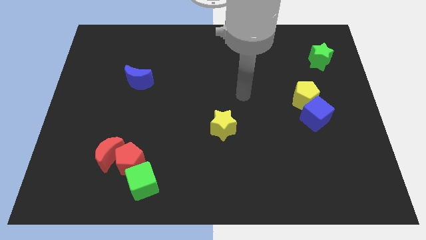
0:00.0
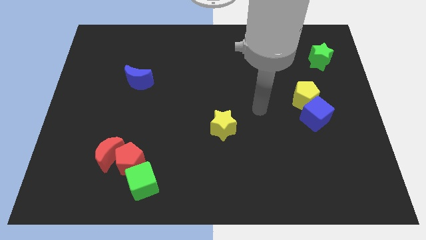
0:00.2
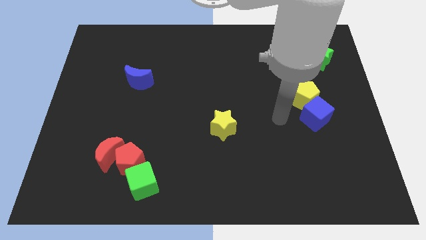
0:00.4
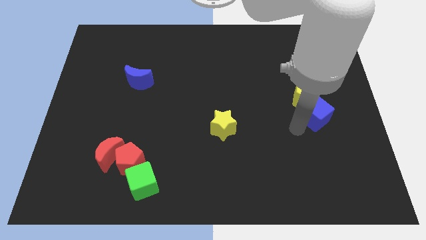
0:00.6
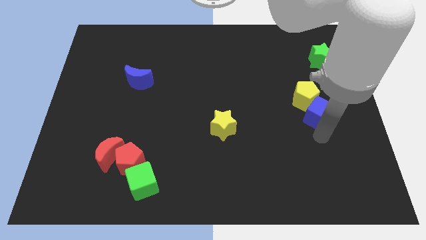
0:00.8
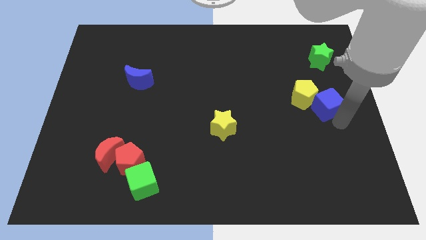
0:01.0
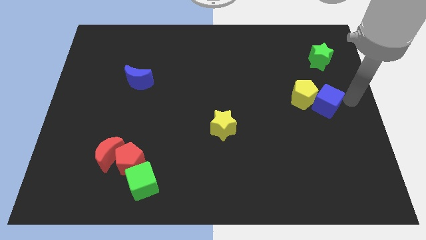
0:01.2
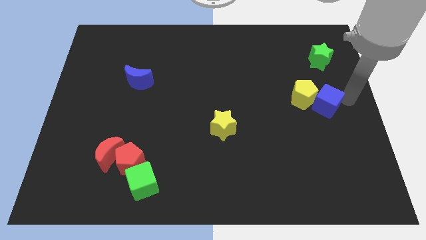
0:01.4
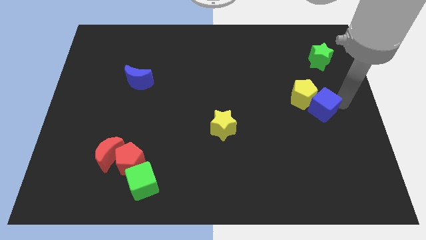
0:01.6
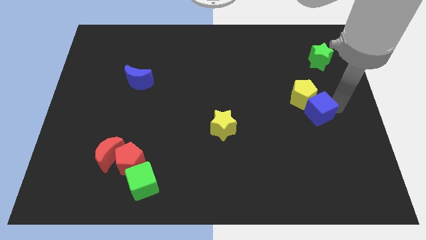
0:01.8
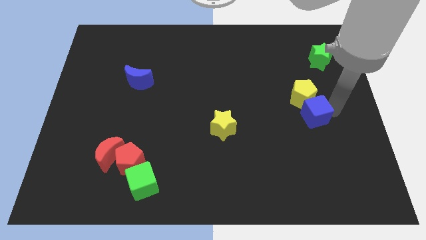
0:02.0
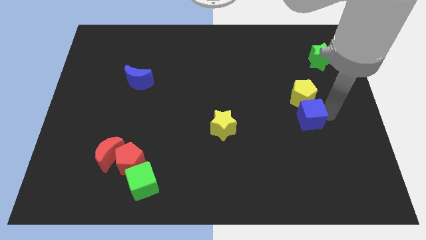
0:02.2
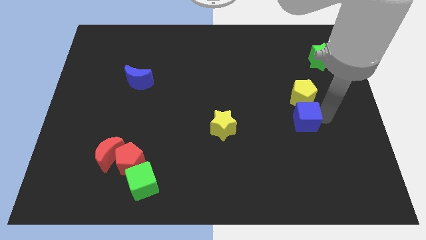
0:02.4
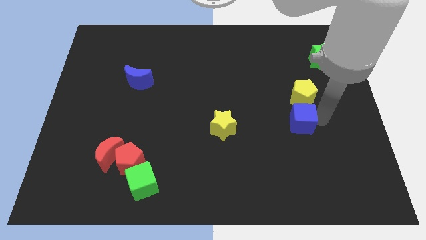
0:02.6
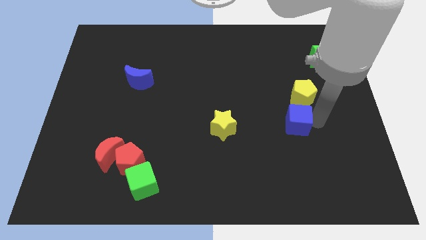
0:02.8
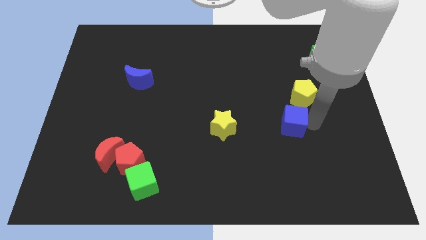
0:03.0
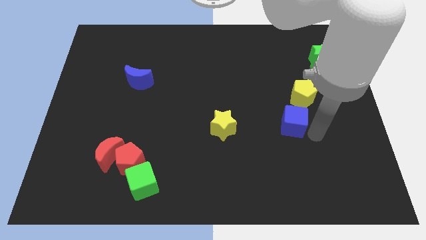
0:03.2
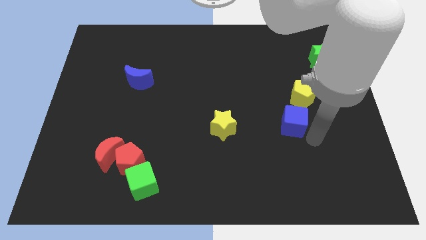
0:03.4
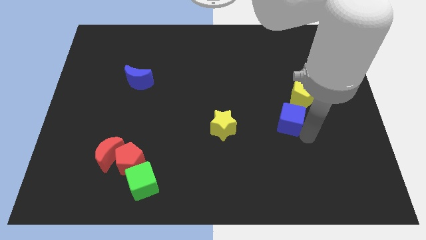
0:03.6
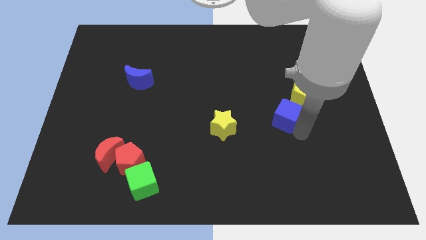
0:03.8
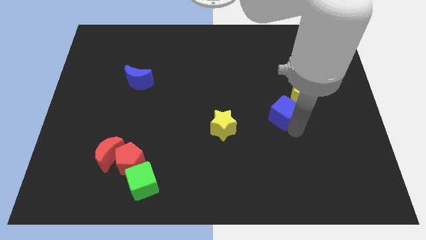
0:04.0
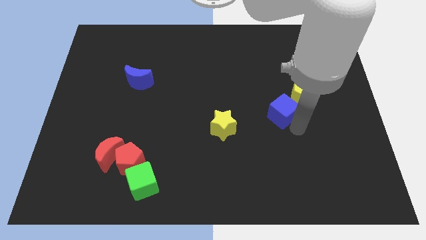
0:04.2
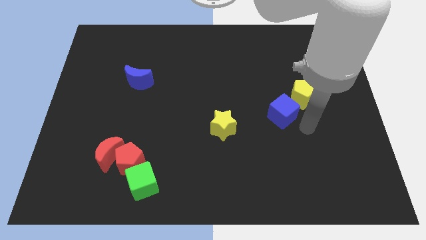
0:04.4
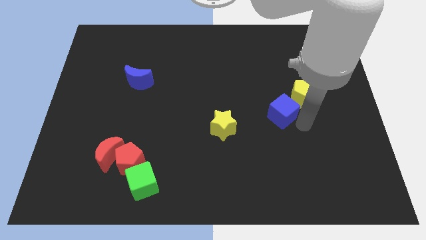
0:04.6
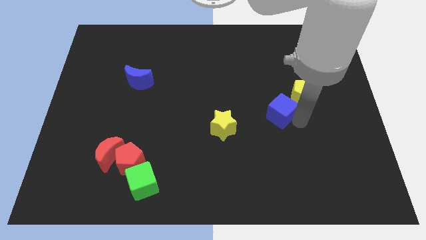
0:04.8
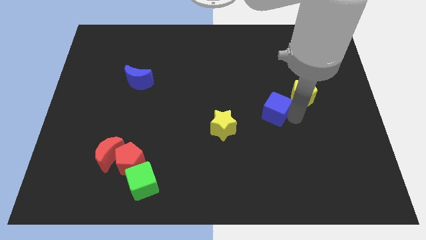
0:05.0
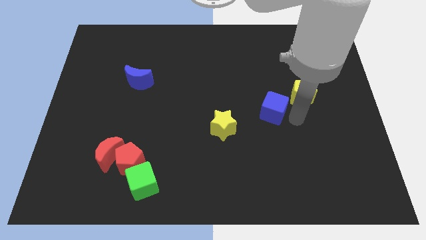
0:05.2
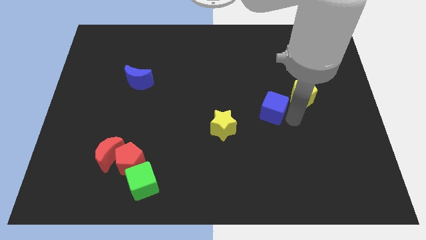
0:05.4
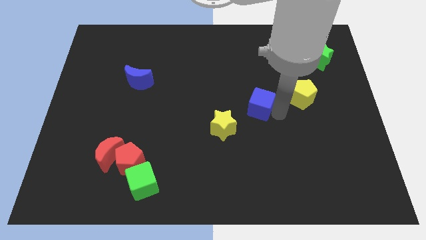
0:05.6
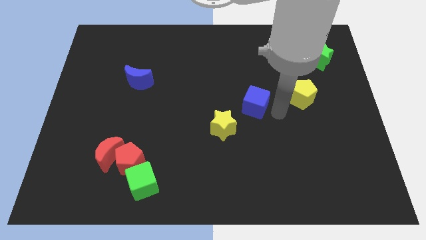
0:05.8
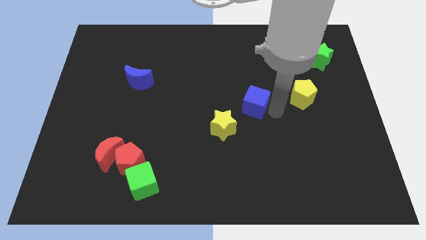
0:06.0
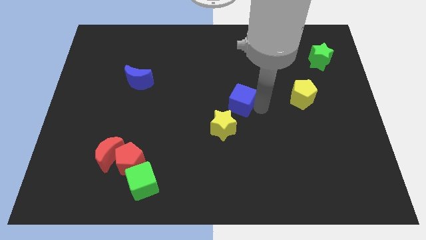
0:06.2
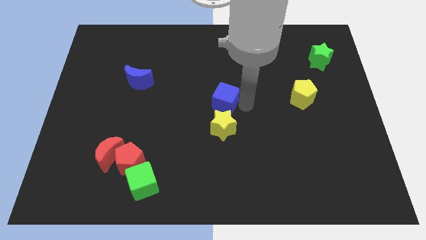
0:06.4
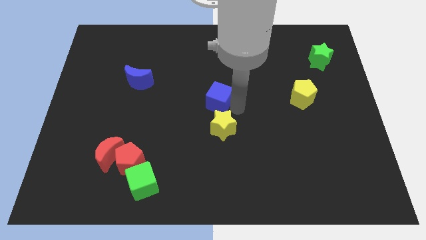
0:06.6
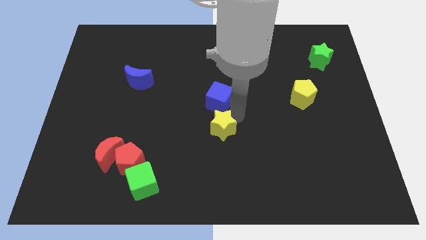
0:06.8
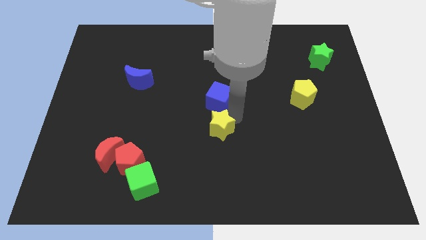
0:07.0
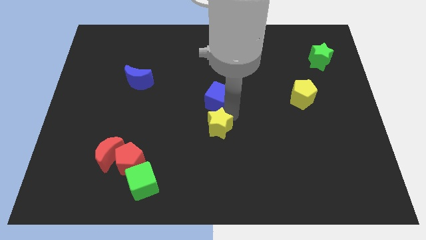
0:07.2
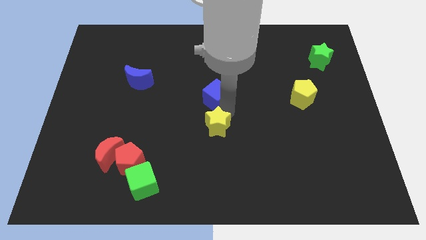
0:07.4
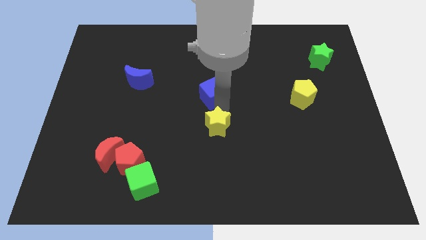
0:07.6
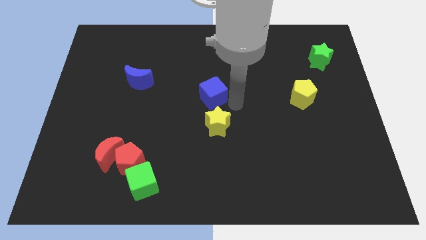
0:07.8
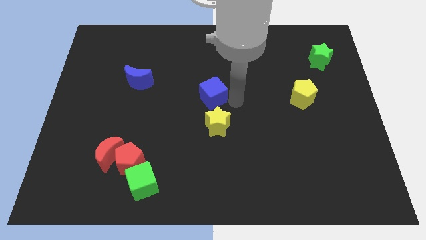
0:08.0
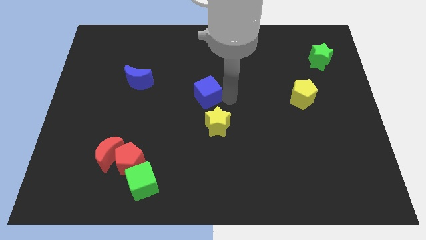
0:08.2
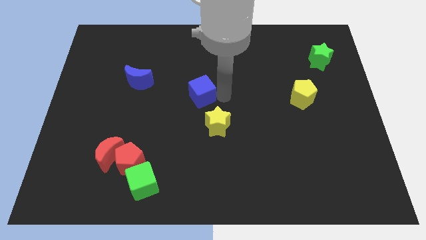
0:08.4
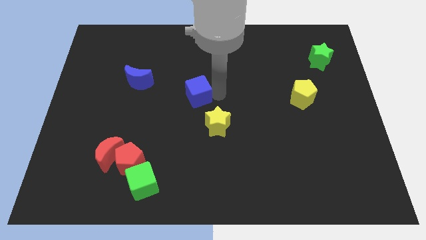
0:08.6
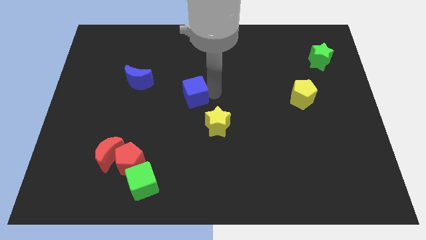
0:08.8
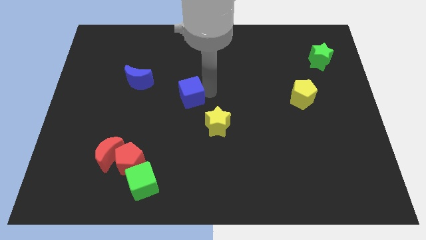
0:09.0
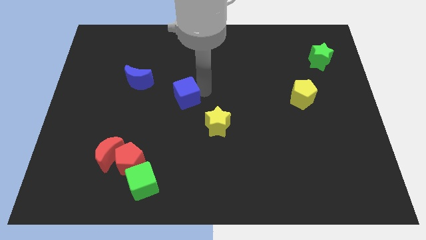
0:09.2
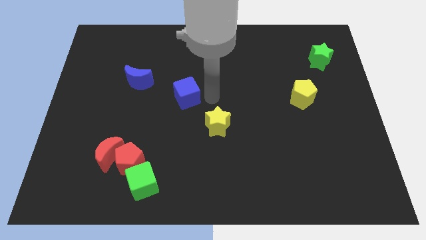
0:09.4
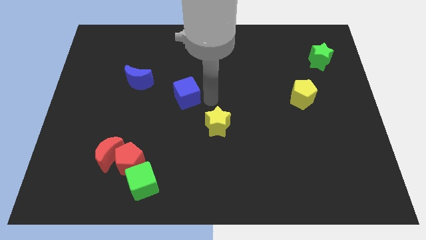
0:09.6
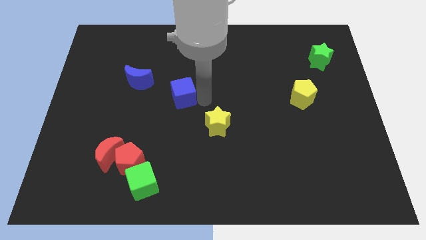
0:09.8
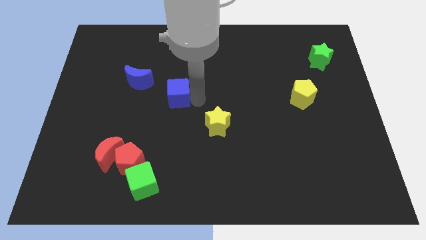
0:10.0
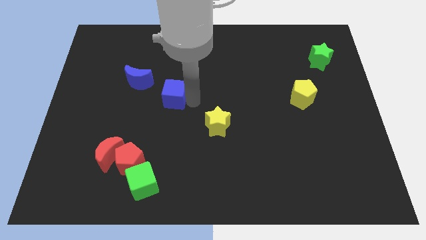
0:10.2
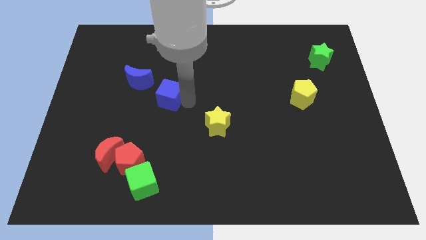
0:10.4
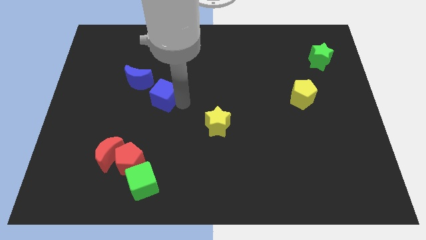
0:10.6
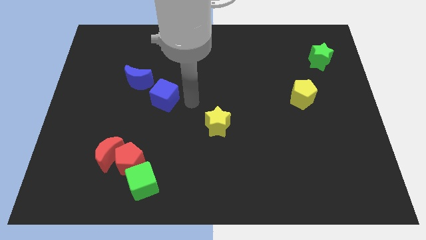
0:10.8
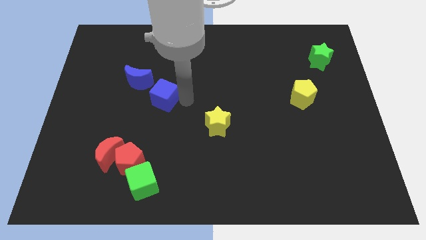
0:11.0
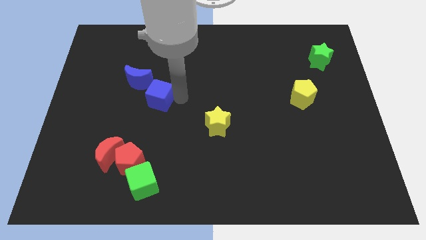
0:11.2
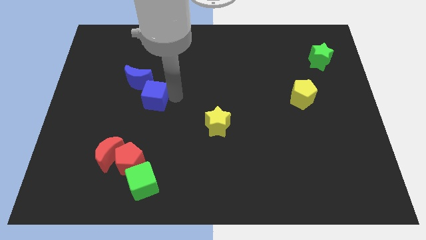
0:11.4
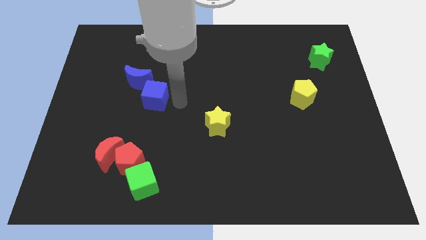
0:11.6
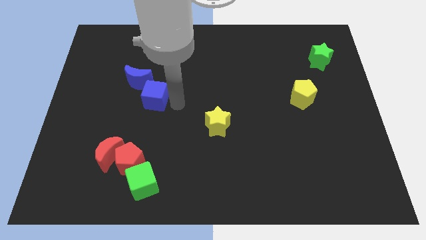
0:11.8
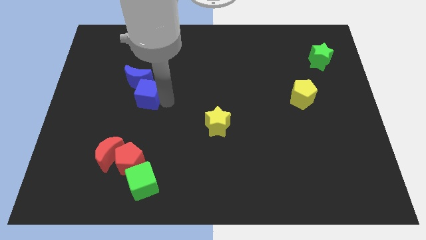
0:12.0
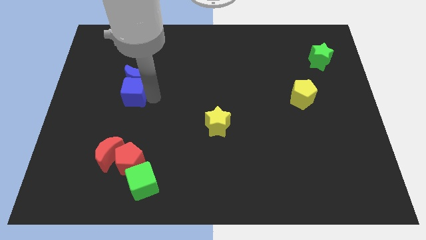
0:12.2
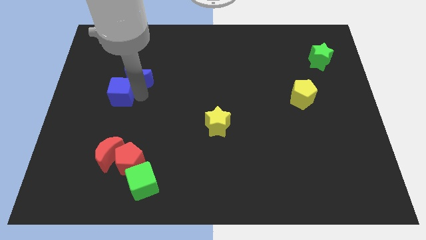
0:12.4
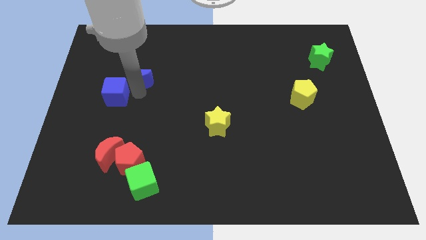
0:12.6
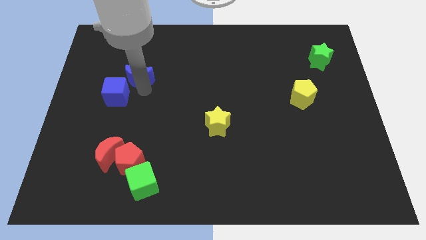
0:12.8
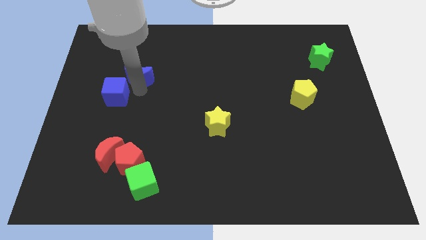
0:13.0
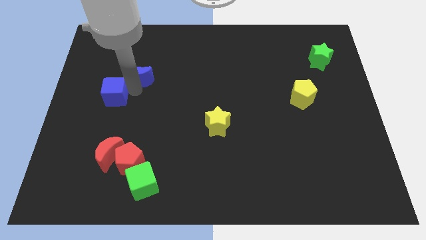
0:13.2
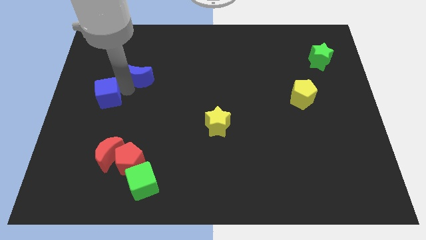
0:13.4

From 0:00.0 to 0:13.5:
move the blue cube to the left side of the board
